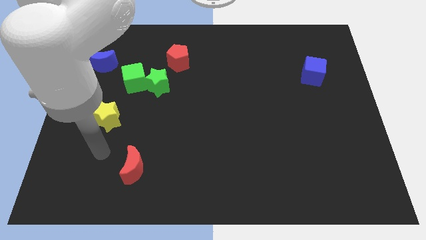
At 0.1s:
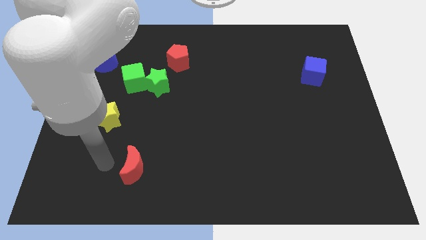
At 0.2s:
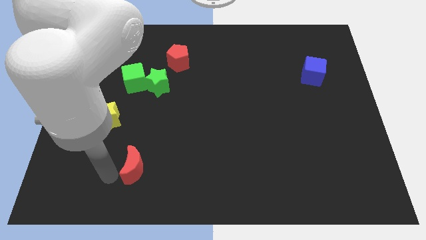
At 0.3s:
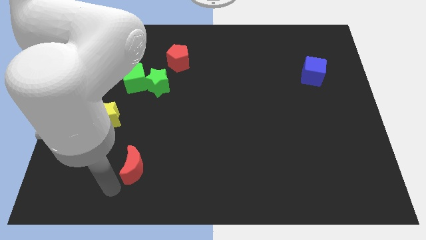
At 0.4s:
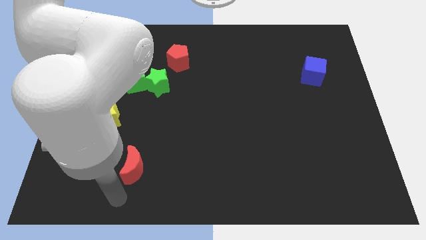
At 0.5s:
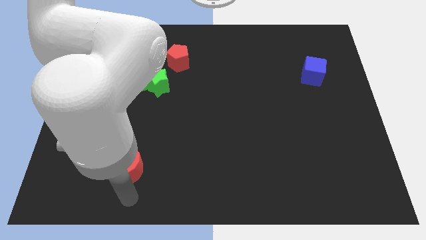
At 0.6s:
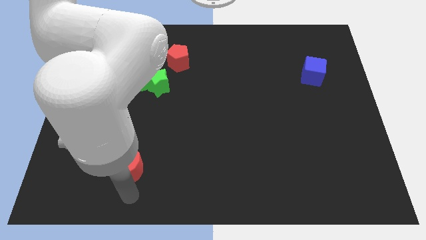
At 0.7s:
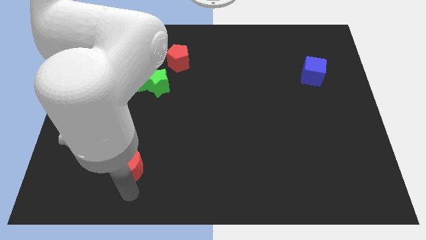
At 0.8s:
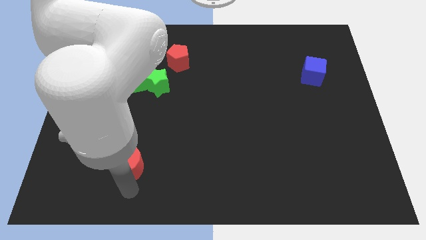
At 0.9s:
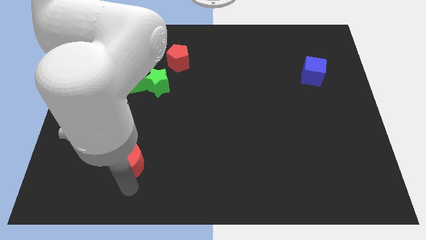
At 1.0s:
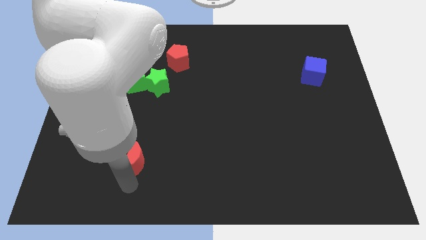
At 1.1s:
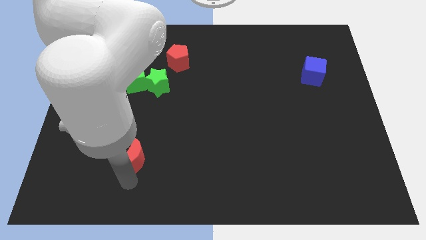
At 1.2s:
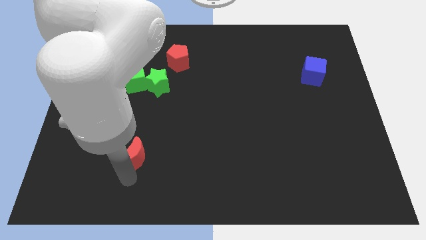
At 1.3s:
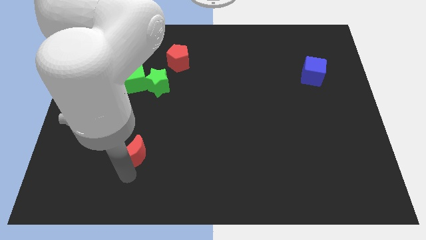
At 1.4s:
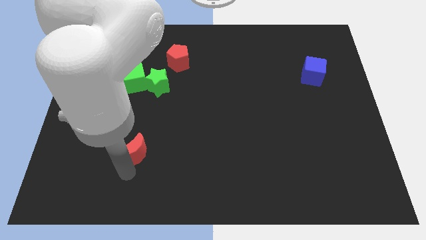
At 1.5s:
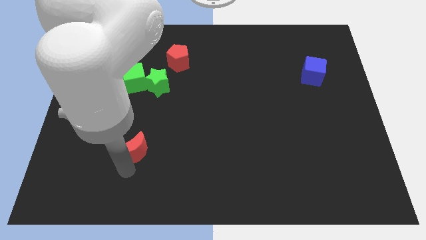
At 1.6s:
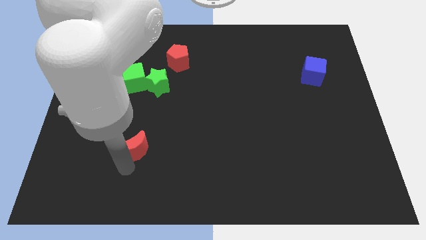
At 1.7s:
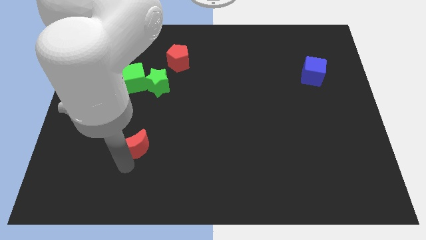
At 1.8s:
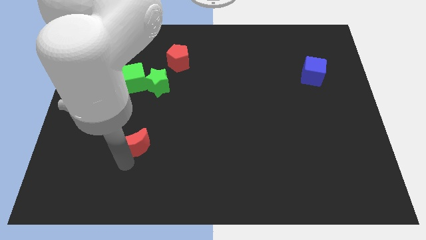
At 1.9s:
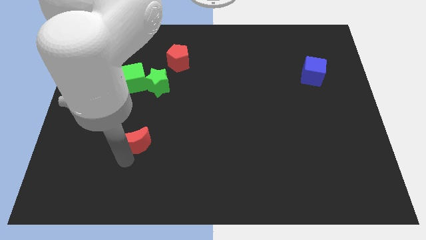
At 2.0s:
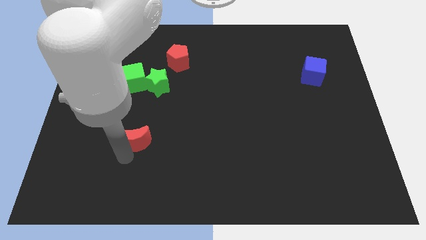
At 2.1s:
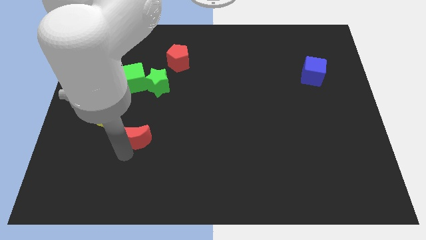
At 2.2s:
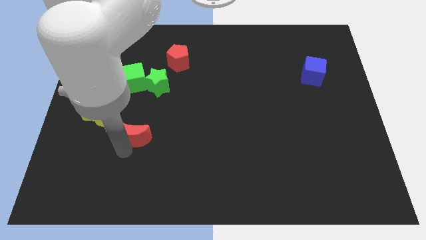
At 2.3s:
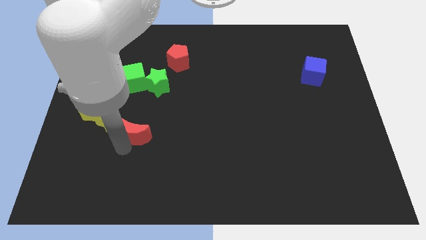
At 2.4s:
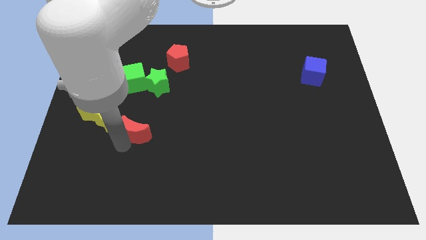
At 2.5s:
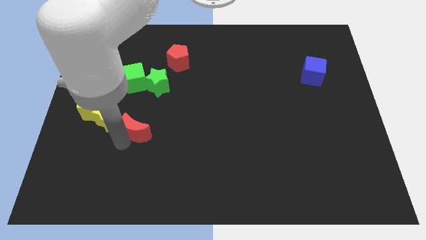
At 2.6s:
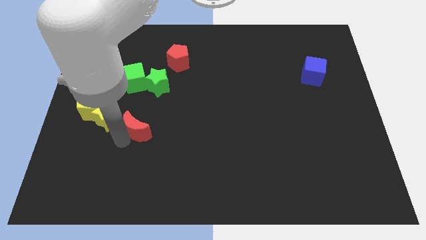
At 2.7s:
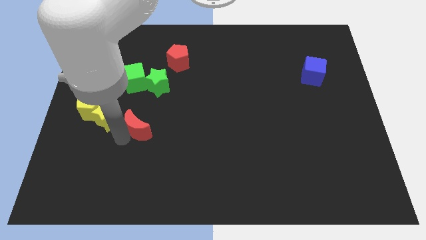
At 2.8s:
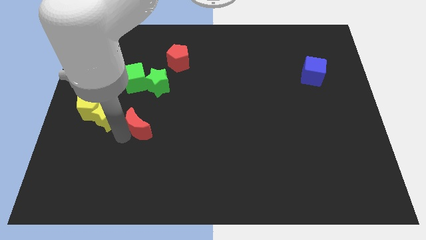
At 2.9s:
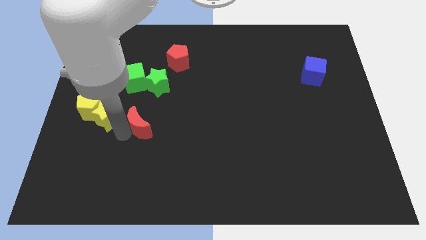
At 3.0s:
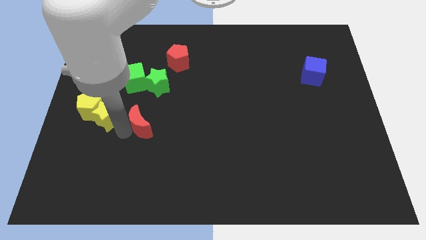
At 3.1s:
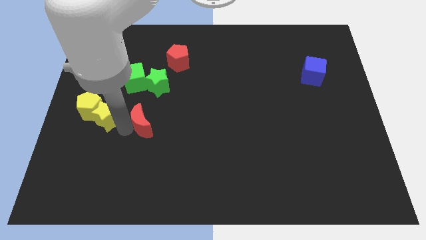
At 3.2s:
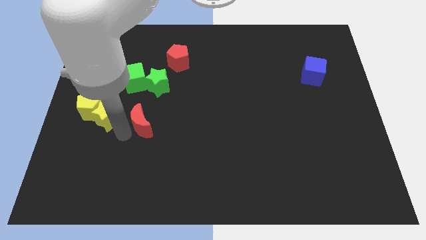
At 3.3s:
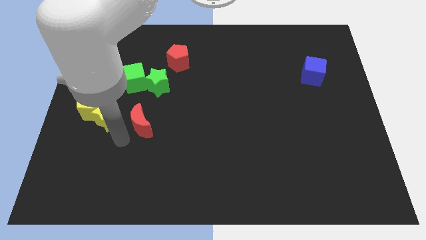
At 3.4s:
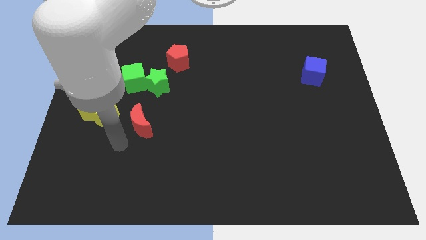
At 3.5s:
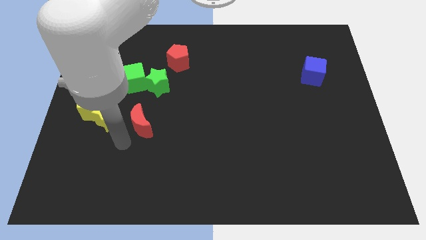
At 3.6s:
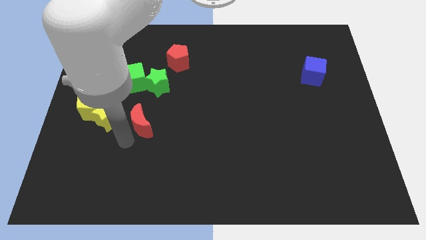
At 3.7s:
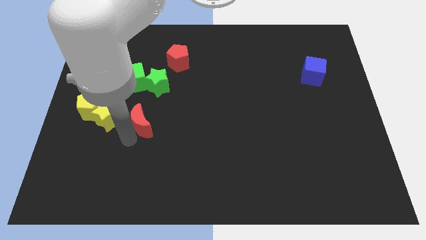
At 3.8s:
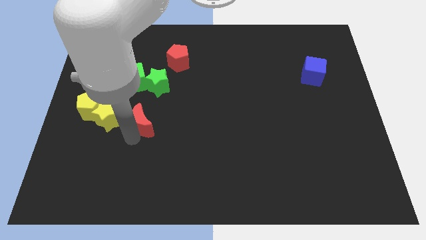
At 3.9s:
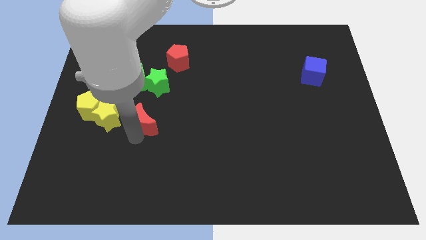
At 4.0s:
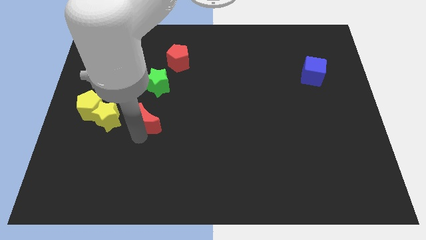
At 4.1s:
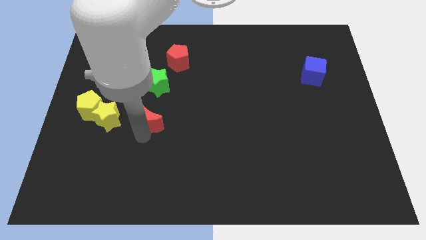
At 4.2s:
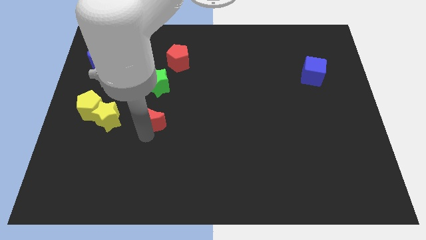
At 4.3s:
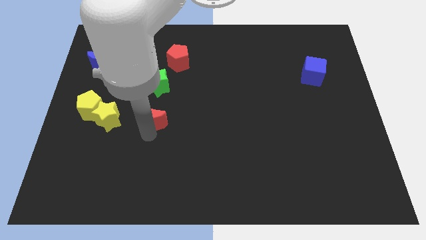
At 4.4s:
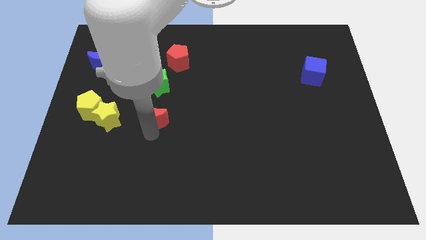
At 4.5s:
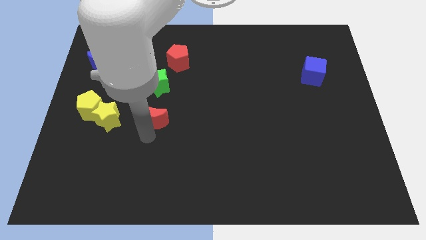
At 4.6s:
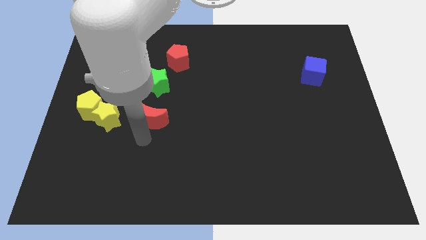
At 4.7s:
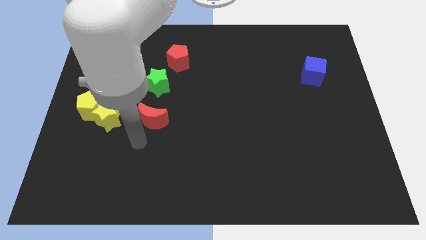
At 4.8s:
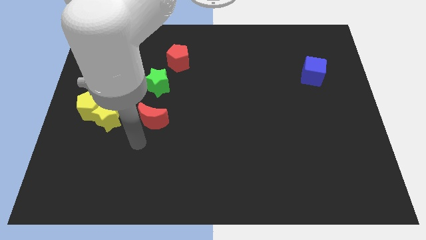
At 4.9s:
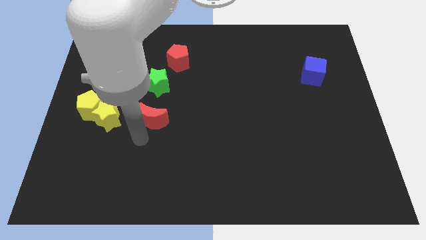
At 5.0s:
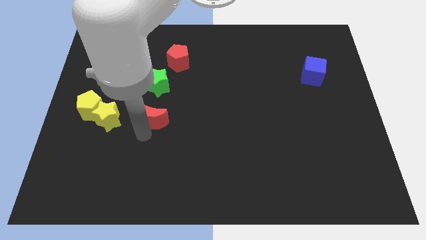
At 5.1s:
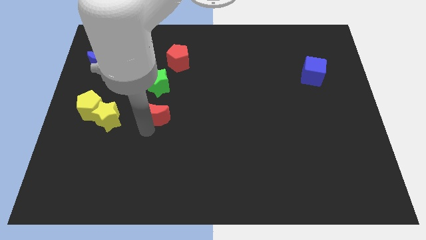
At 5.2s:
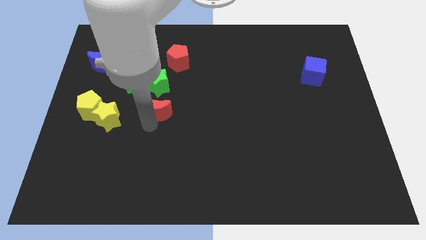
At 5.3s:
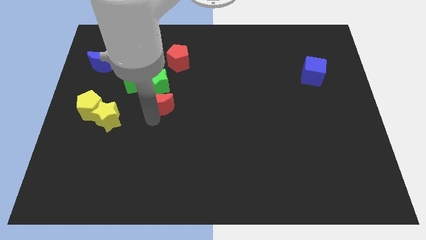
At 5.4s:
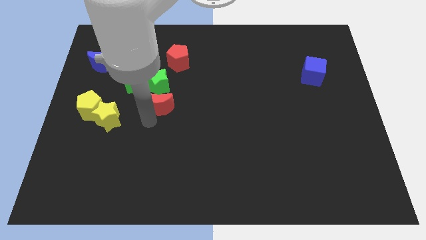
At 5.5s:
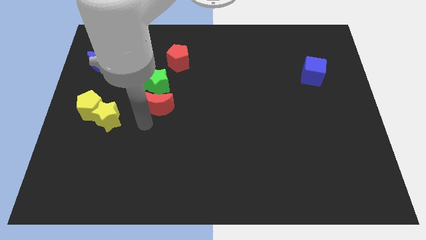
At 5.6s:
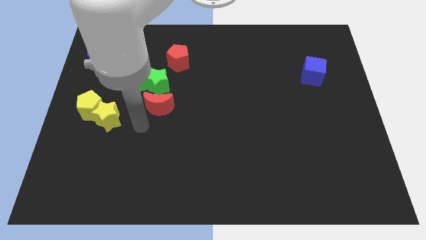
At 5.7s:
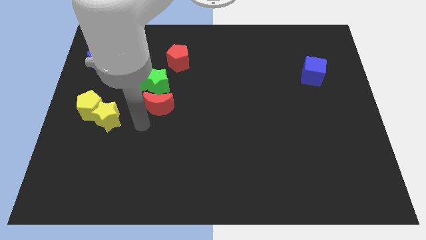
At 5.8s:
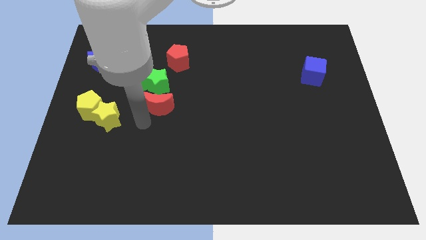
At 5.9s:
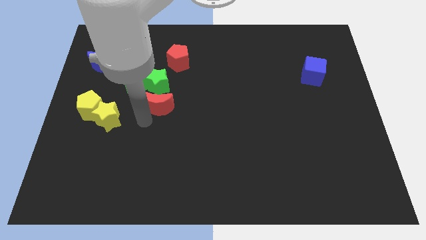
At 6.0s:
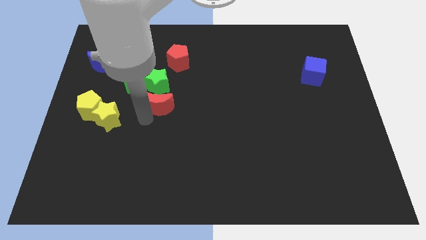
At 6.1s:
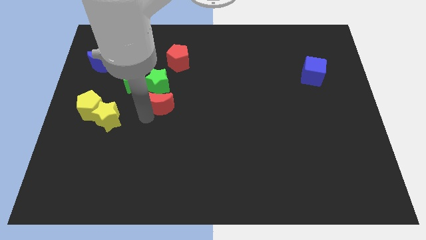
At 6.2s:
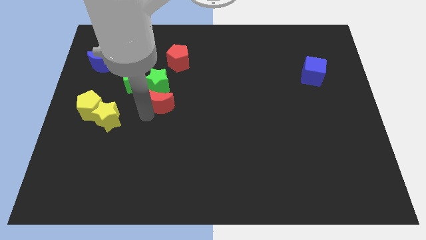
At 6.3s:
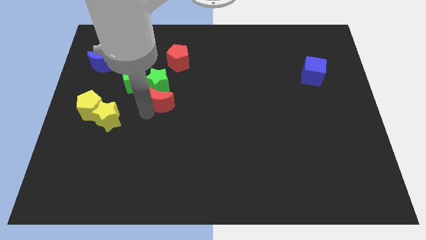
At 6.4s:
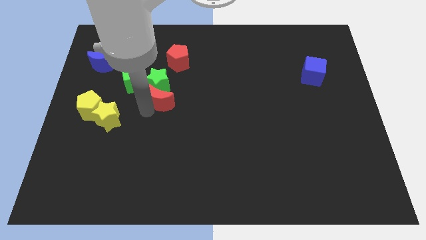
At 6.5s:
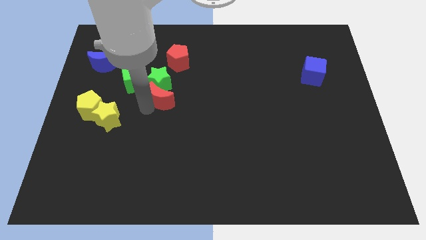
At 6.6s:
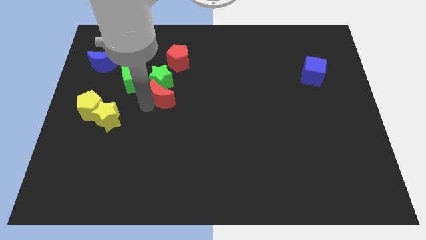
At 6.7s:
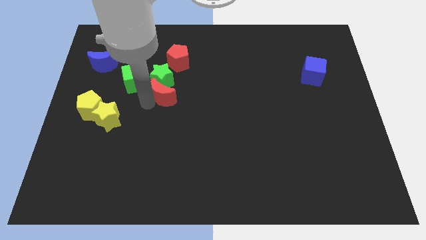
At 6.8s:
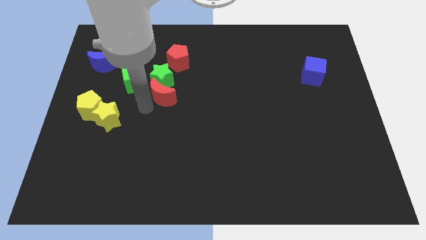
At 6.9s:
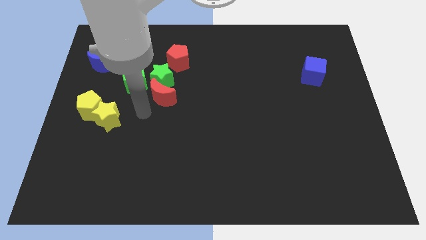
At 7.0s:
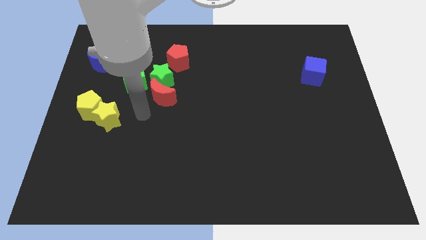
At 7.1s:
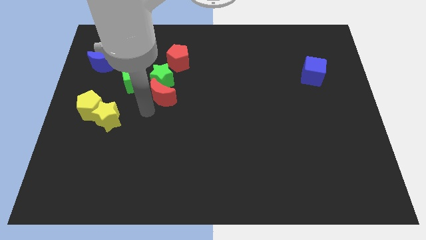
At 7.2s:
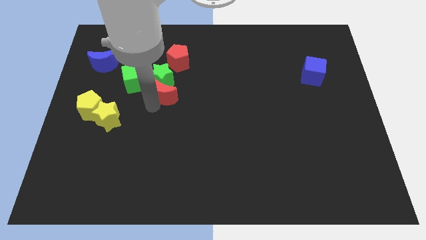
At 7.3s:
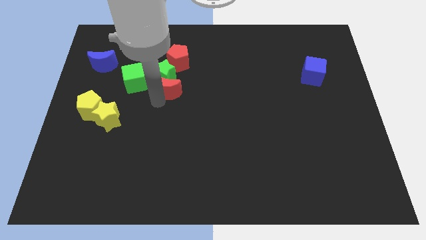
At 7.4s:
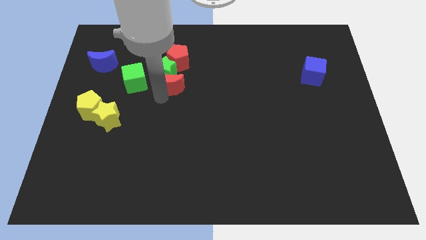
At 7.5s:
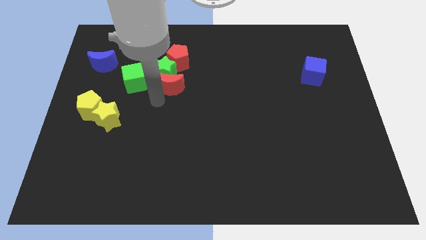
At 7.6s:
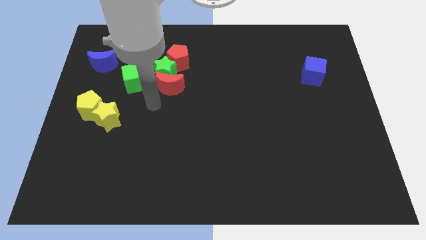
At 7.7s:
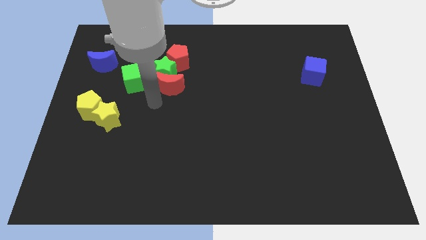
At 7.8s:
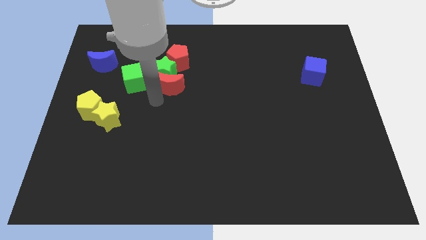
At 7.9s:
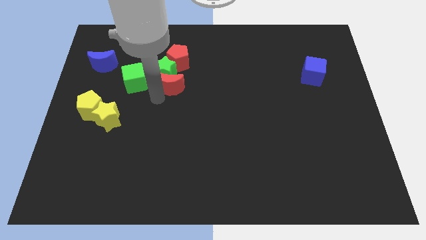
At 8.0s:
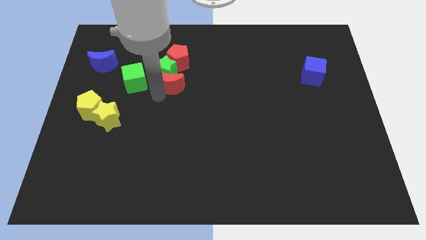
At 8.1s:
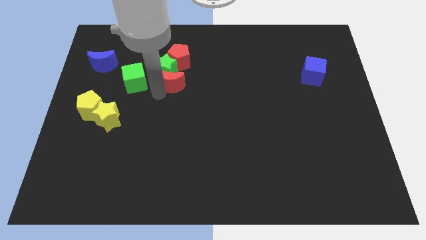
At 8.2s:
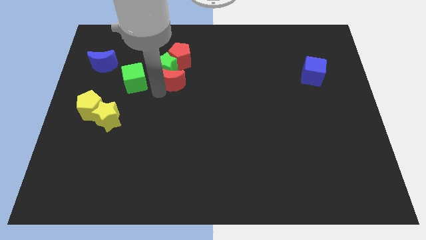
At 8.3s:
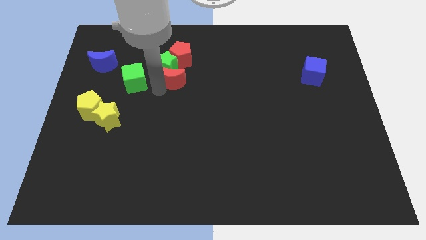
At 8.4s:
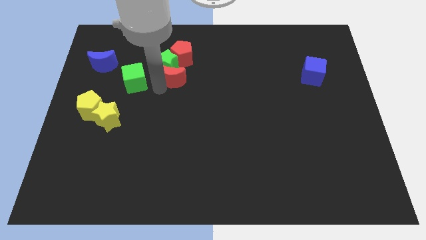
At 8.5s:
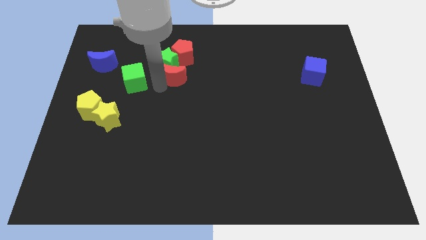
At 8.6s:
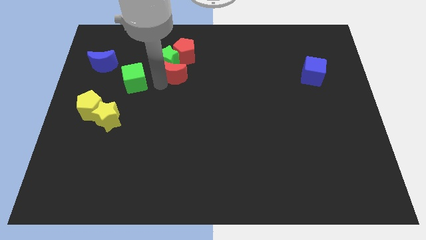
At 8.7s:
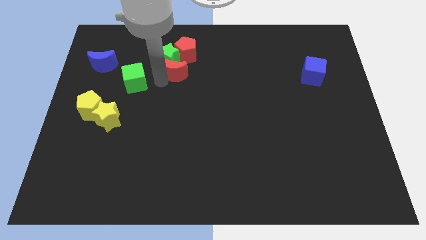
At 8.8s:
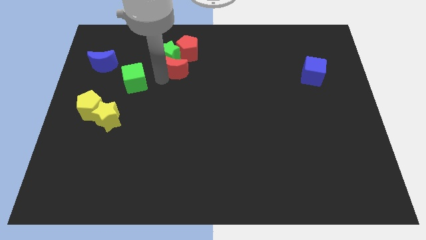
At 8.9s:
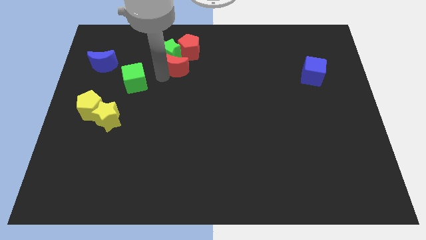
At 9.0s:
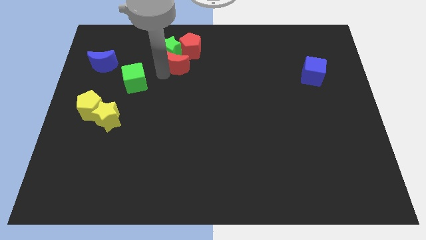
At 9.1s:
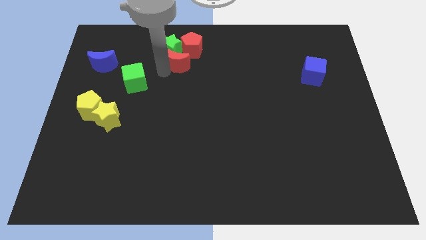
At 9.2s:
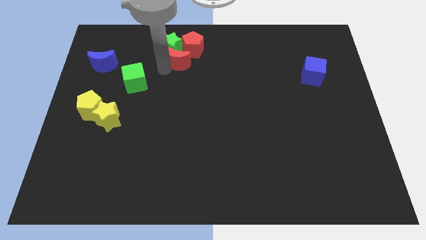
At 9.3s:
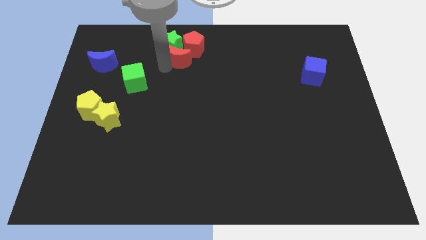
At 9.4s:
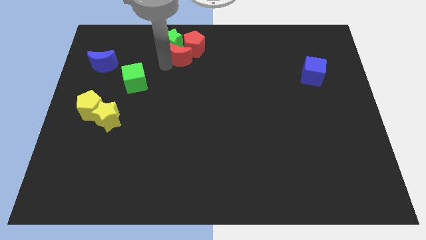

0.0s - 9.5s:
push the red moon next to the red pentagon
